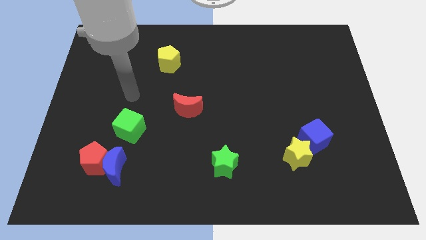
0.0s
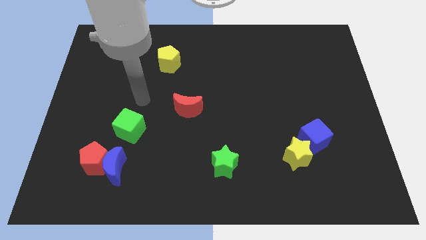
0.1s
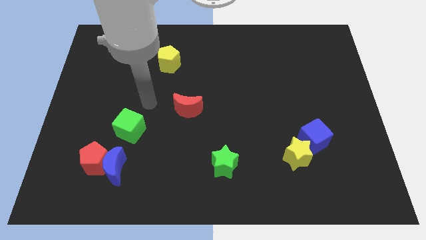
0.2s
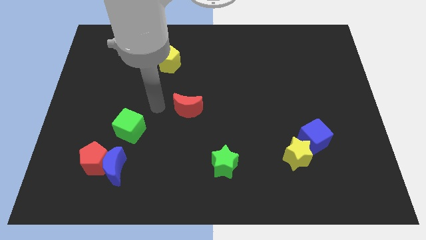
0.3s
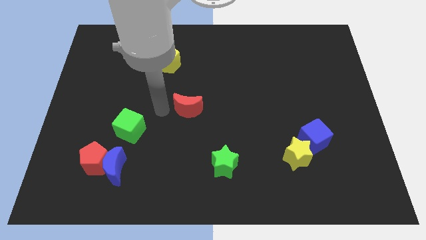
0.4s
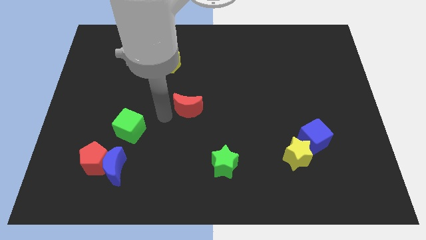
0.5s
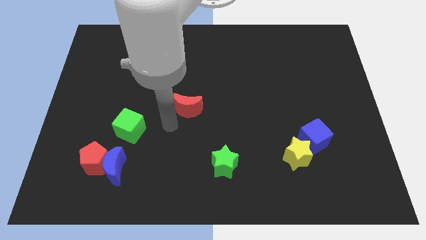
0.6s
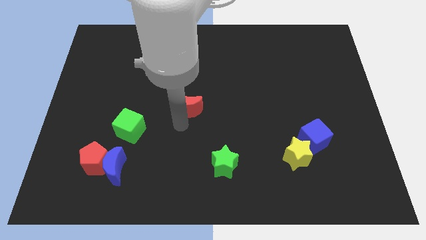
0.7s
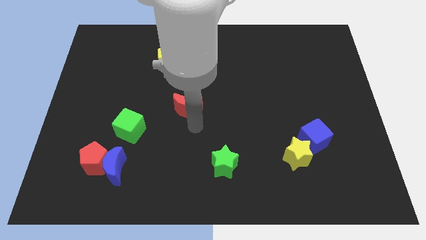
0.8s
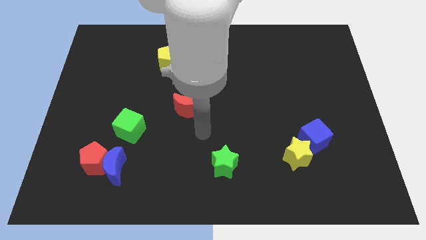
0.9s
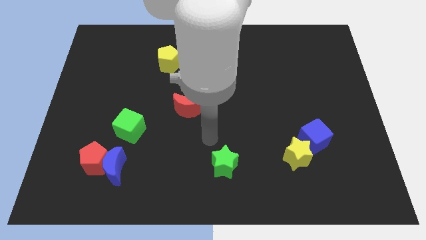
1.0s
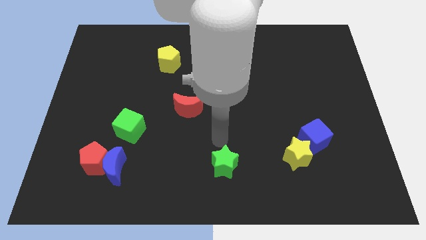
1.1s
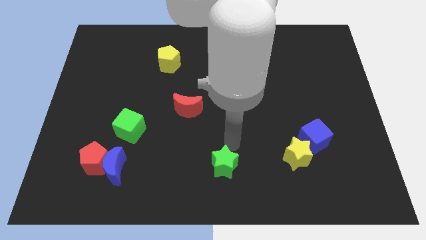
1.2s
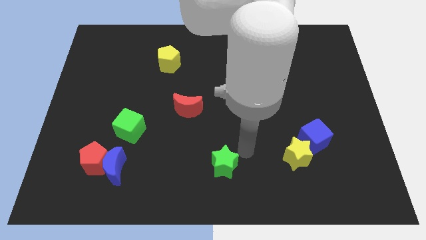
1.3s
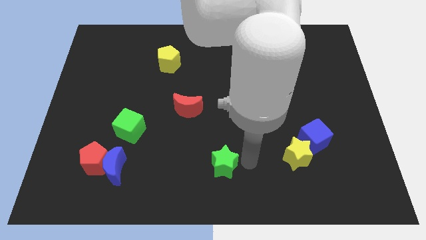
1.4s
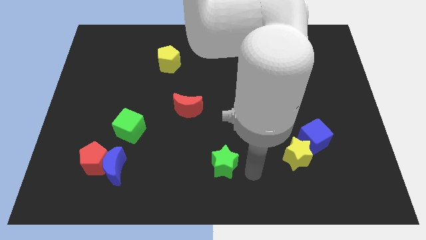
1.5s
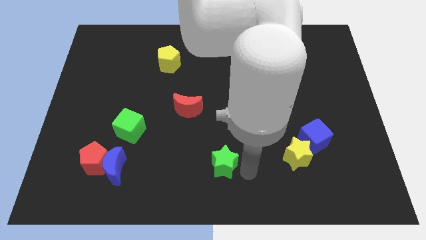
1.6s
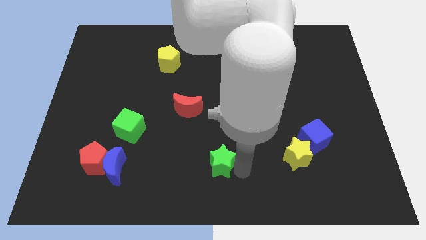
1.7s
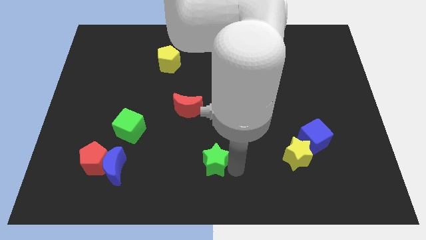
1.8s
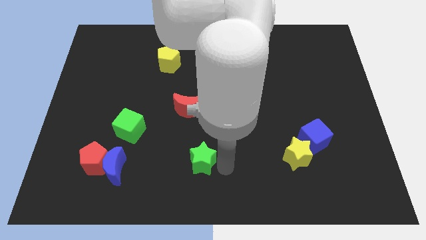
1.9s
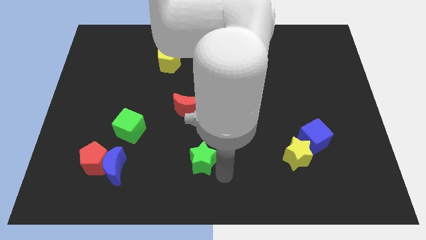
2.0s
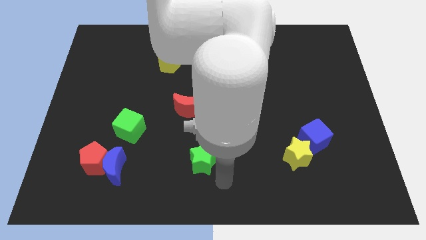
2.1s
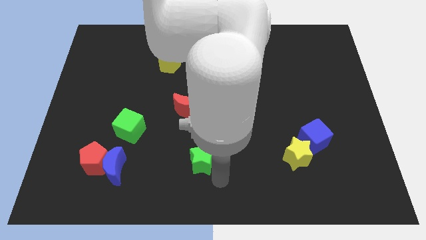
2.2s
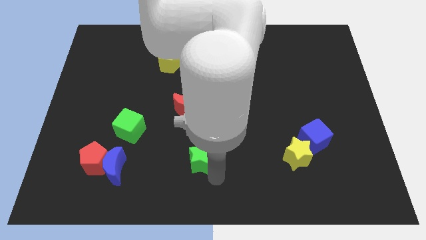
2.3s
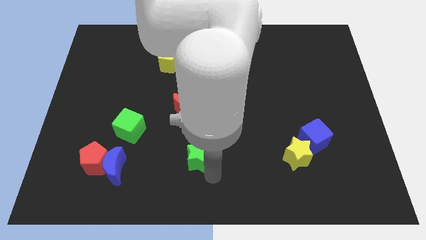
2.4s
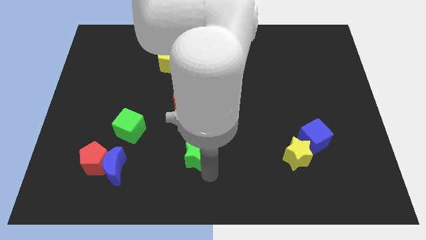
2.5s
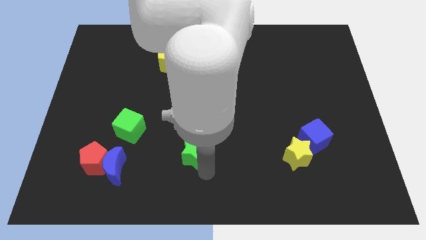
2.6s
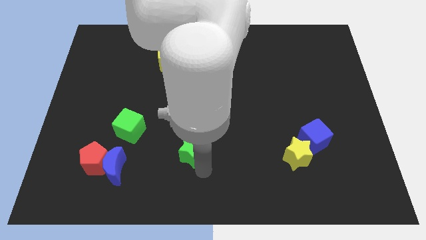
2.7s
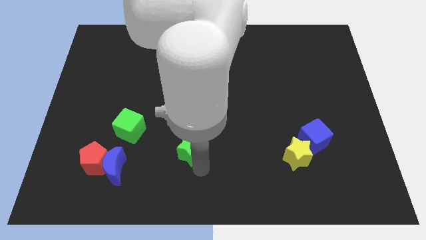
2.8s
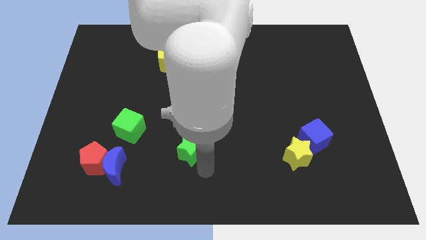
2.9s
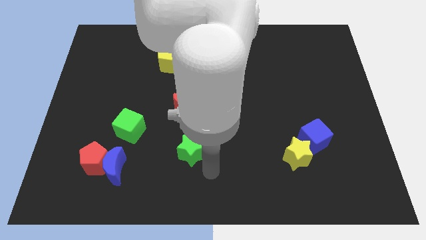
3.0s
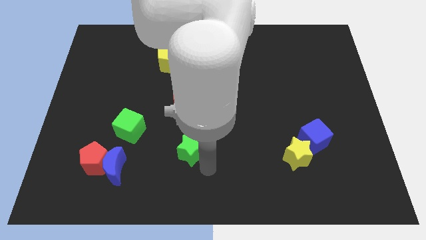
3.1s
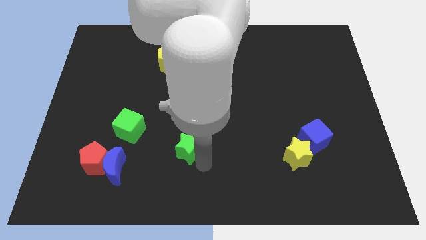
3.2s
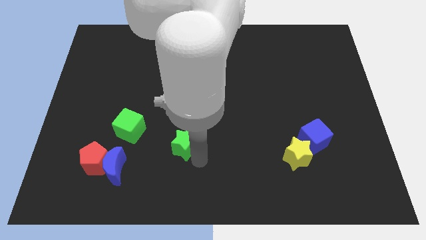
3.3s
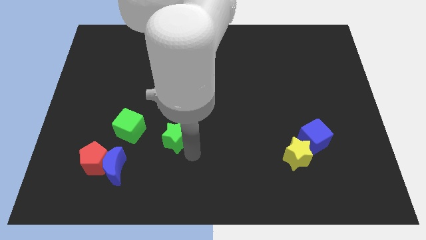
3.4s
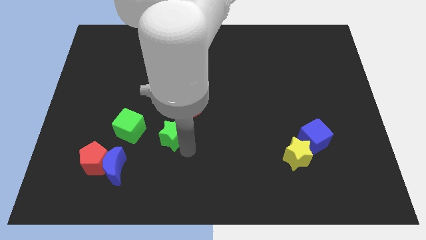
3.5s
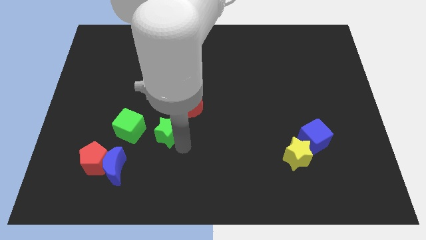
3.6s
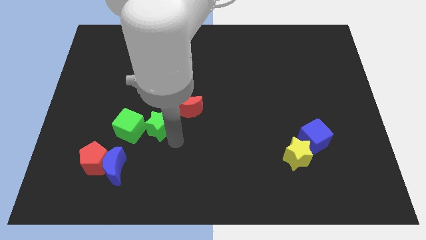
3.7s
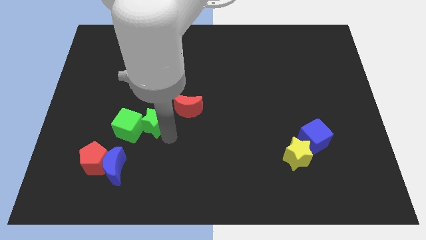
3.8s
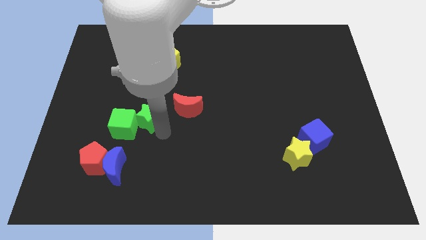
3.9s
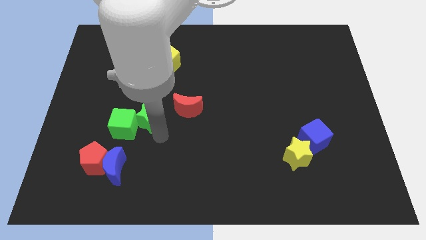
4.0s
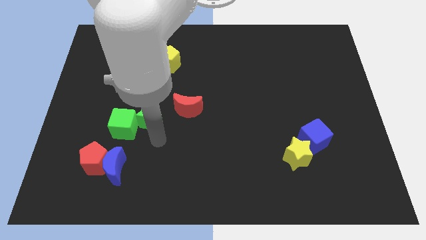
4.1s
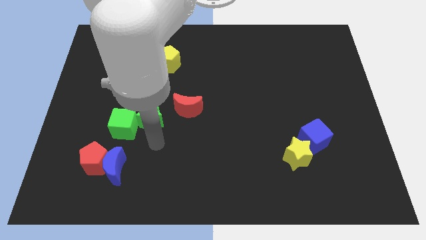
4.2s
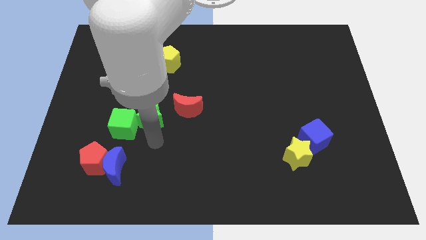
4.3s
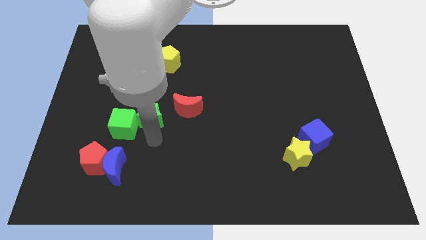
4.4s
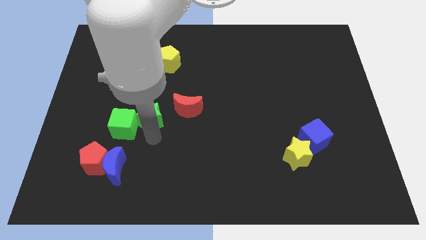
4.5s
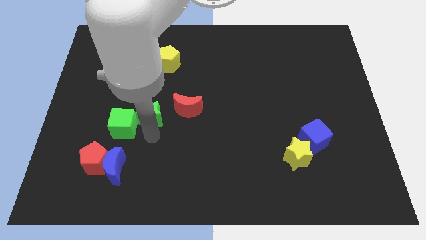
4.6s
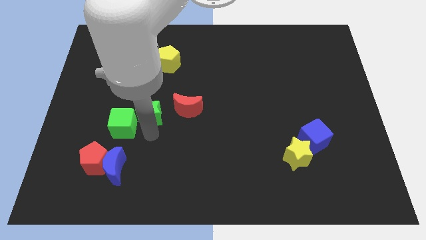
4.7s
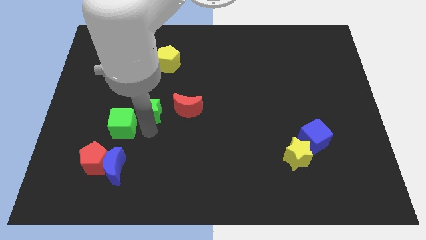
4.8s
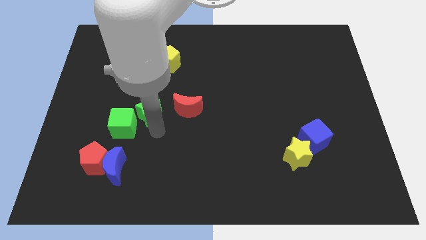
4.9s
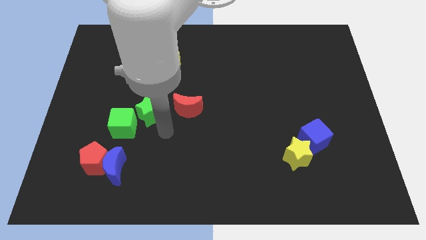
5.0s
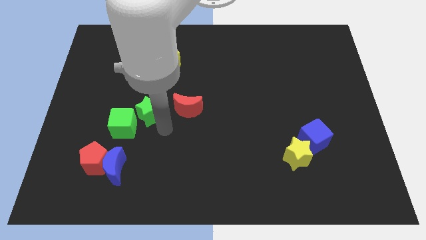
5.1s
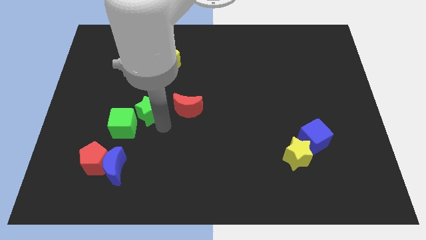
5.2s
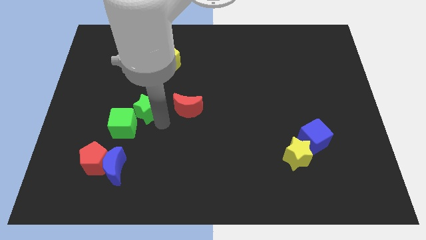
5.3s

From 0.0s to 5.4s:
push the green star to the top side of the green cube

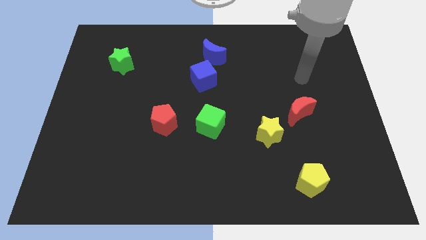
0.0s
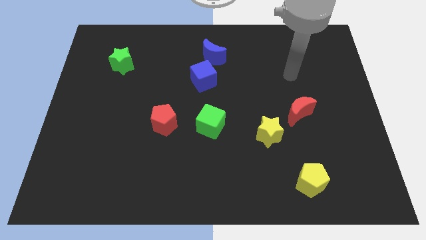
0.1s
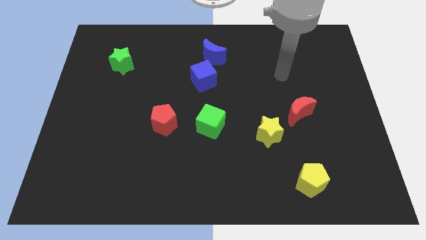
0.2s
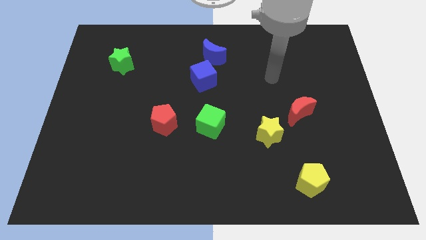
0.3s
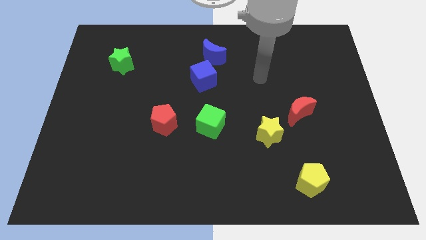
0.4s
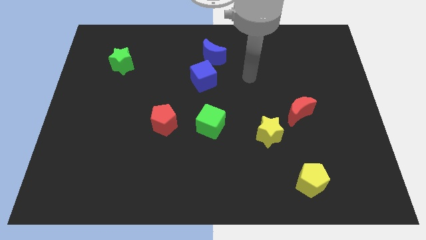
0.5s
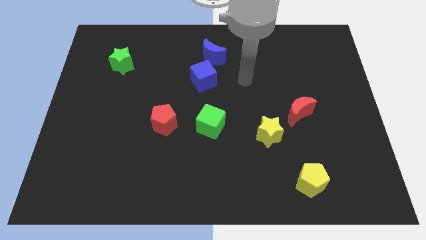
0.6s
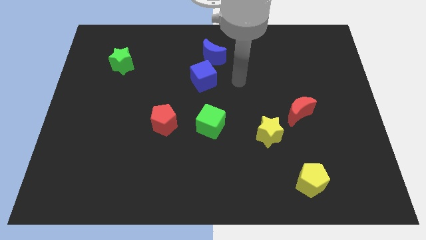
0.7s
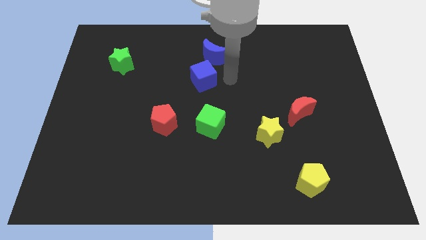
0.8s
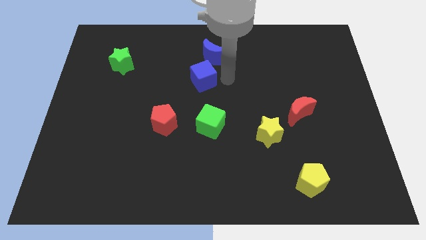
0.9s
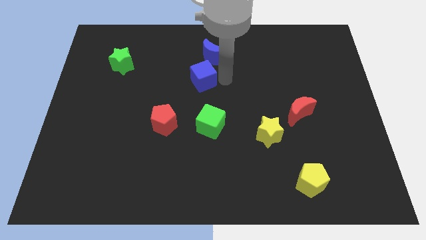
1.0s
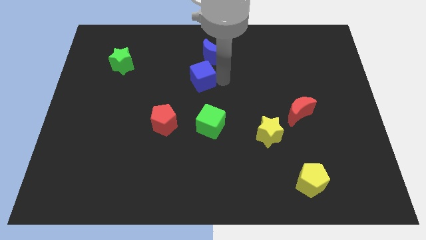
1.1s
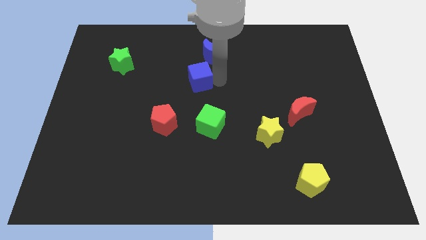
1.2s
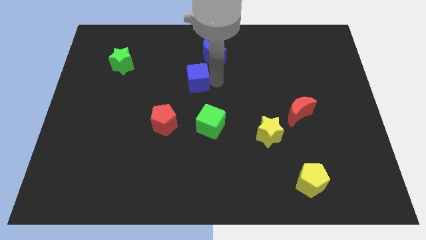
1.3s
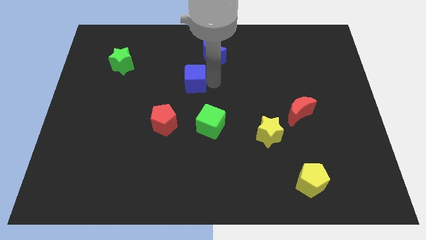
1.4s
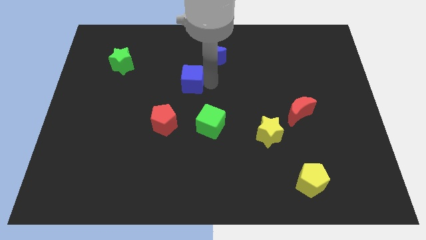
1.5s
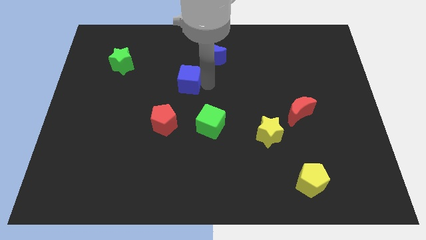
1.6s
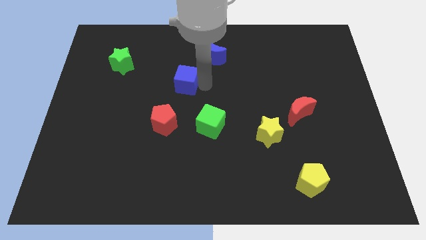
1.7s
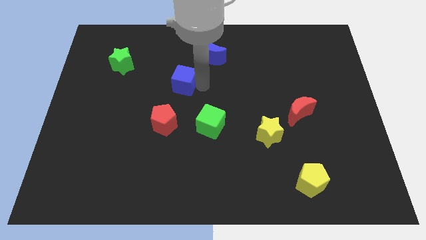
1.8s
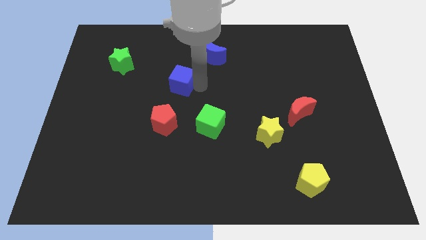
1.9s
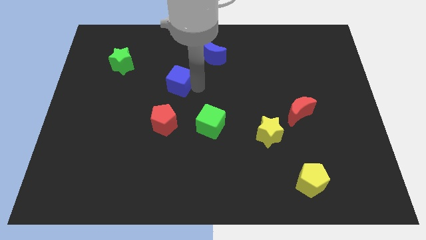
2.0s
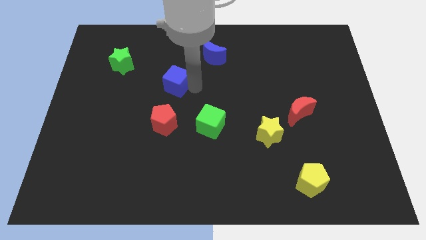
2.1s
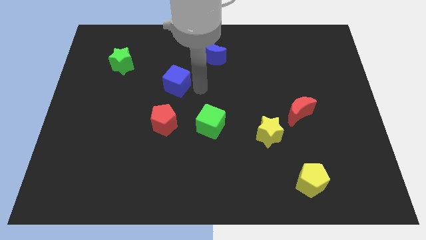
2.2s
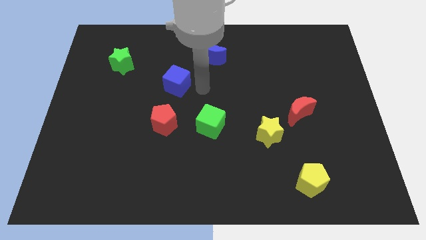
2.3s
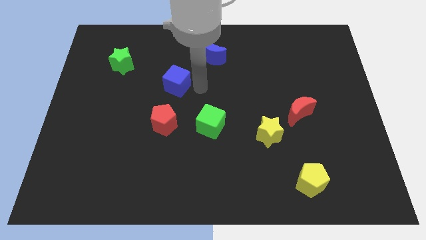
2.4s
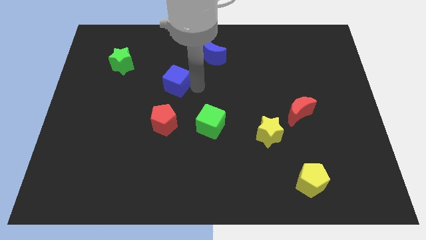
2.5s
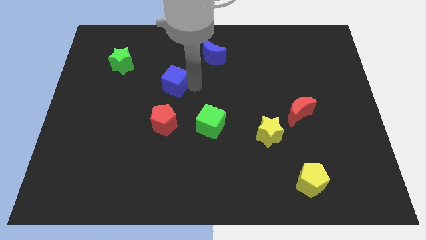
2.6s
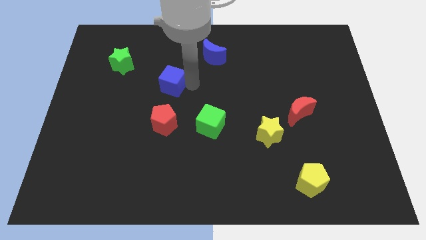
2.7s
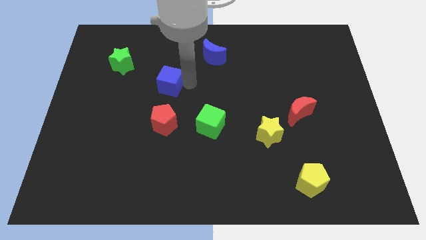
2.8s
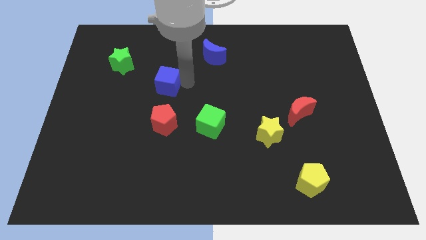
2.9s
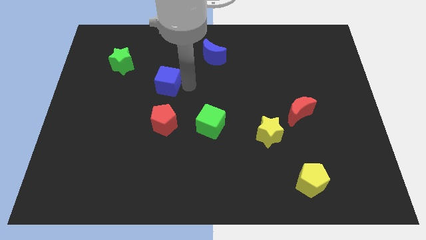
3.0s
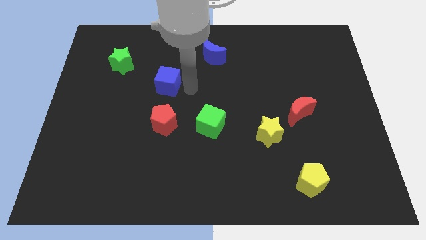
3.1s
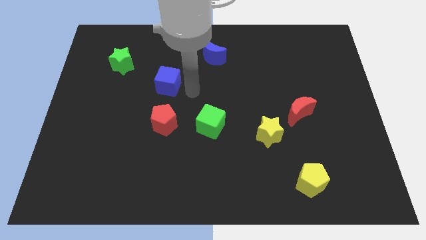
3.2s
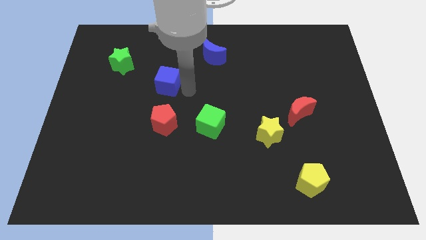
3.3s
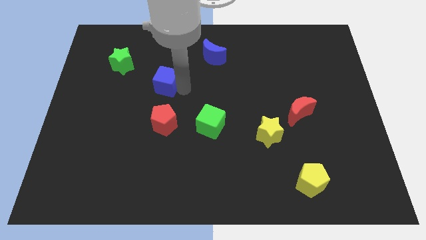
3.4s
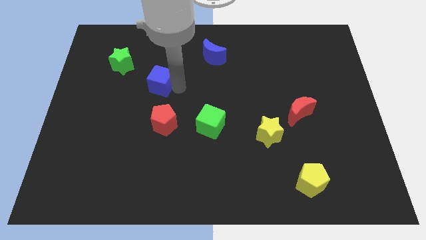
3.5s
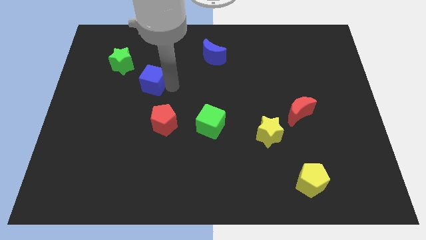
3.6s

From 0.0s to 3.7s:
push the blue cube diagonally down and to the right of the green star
